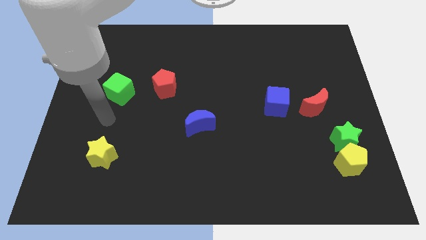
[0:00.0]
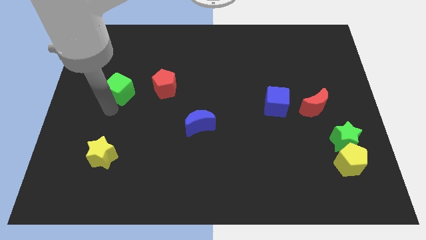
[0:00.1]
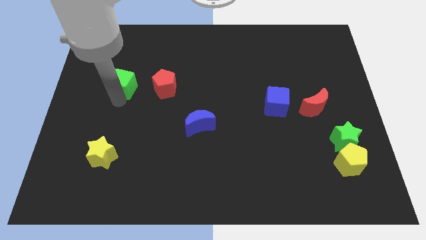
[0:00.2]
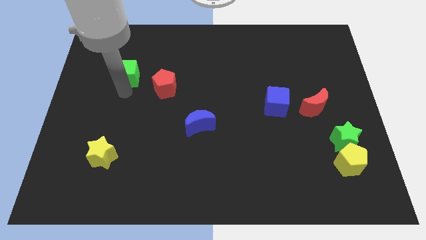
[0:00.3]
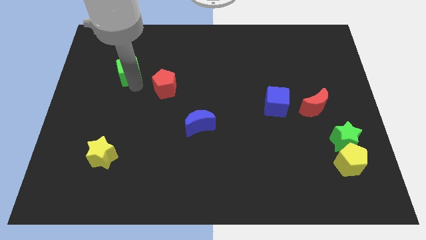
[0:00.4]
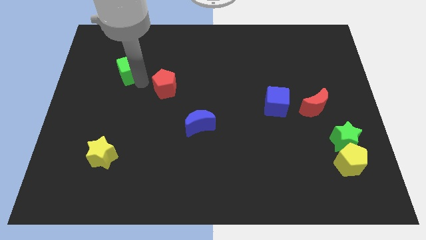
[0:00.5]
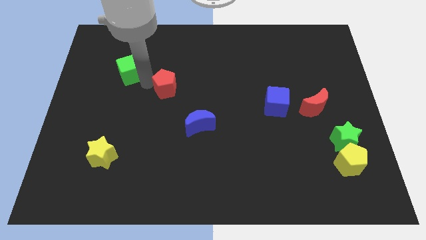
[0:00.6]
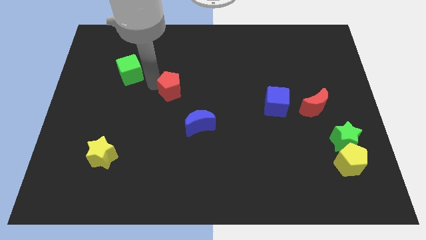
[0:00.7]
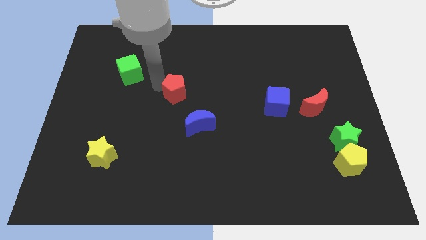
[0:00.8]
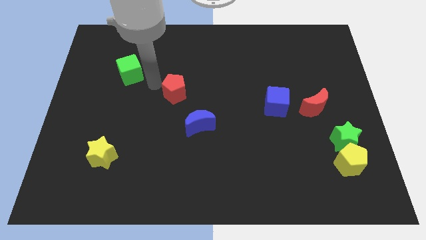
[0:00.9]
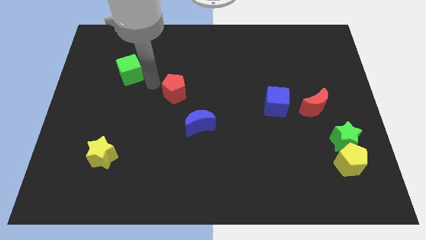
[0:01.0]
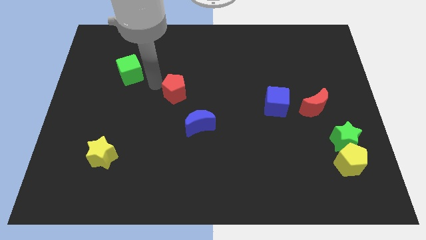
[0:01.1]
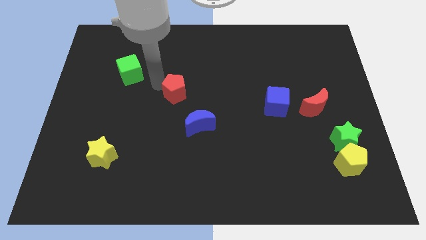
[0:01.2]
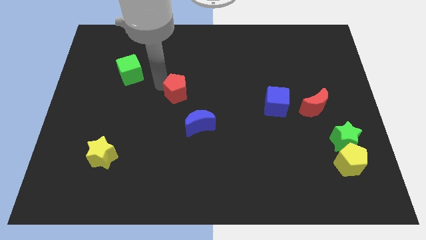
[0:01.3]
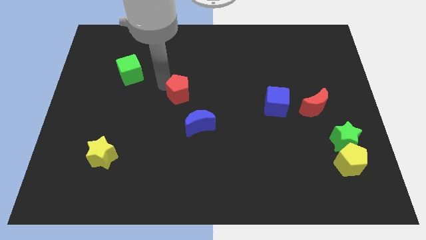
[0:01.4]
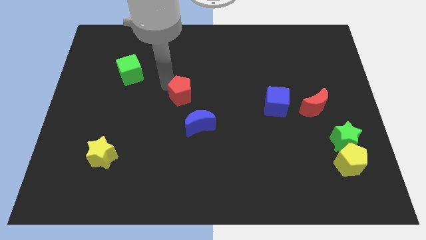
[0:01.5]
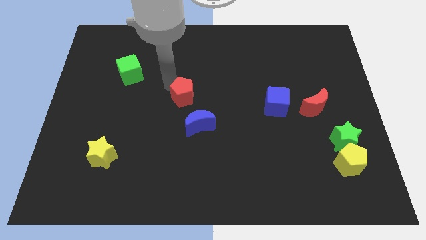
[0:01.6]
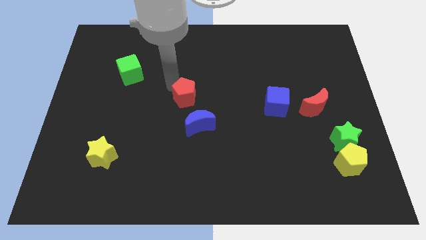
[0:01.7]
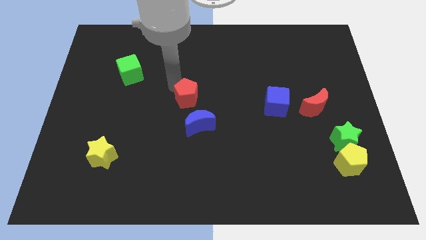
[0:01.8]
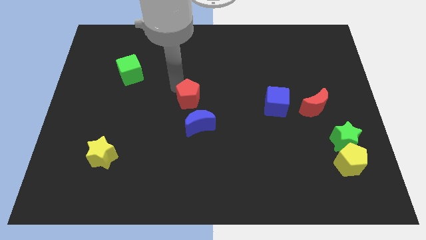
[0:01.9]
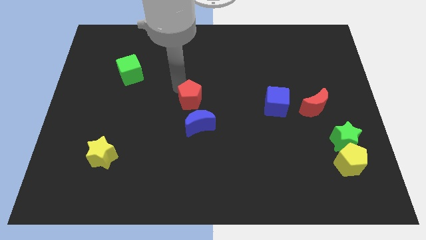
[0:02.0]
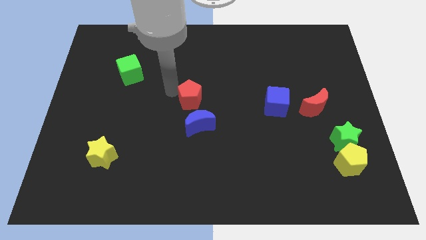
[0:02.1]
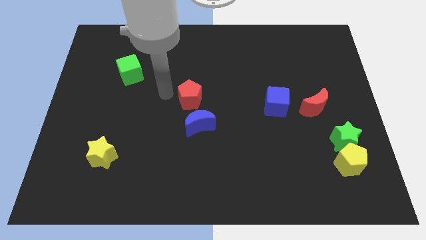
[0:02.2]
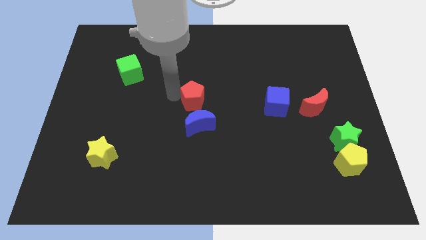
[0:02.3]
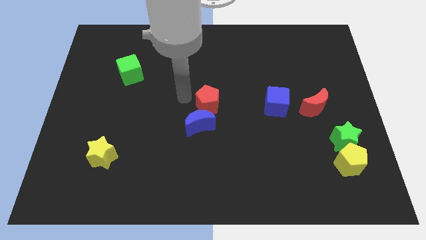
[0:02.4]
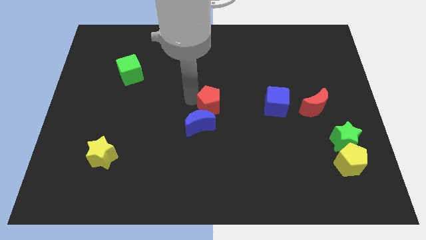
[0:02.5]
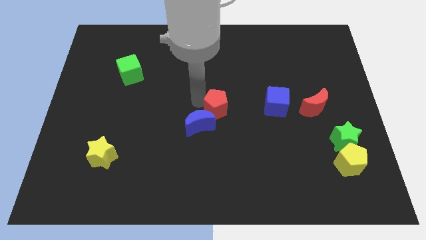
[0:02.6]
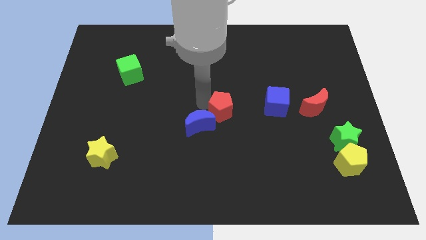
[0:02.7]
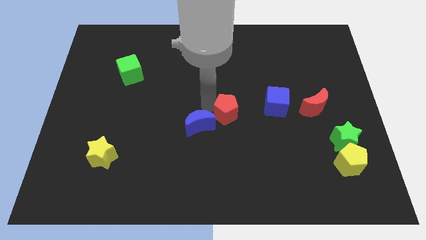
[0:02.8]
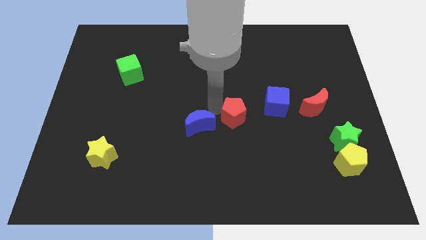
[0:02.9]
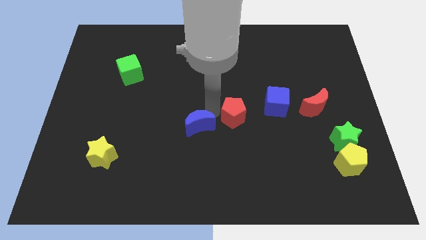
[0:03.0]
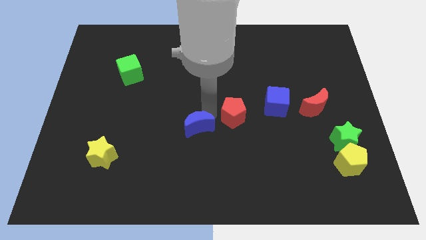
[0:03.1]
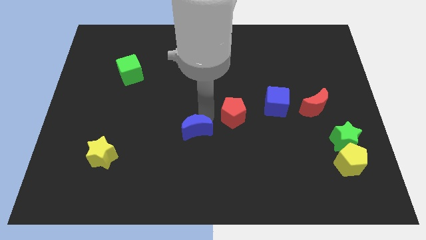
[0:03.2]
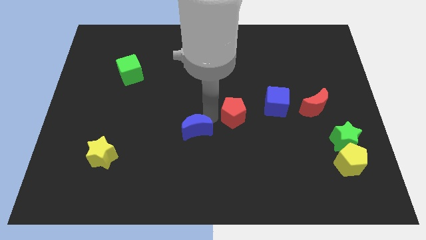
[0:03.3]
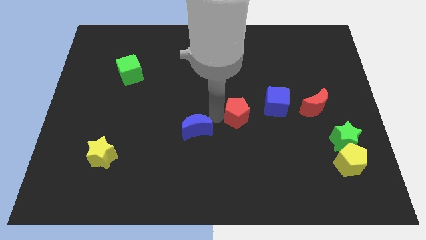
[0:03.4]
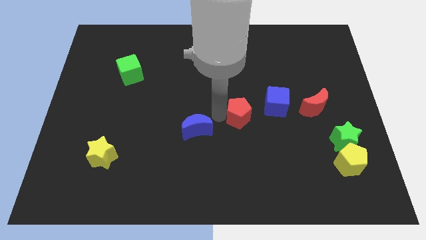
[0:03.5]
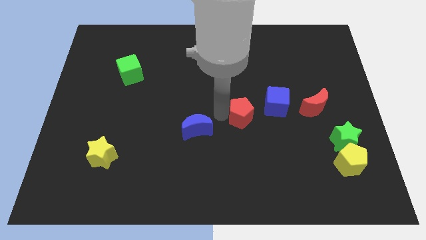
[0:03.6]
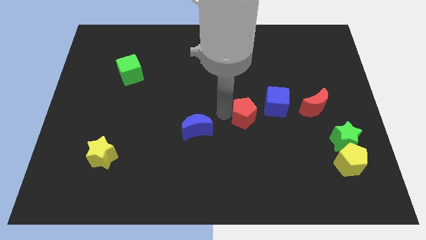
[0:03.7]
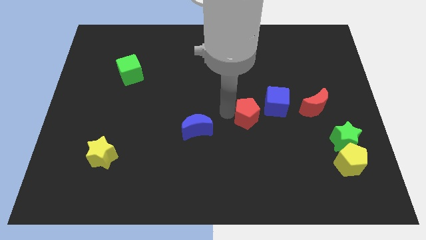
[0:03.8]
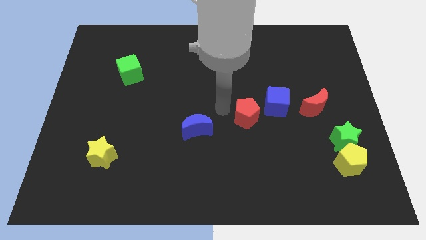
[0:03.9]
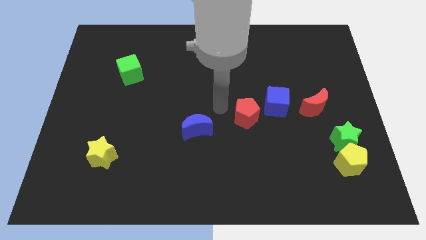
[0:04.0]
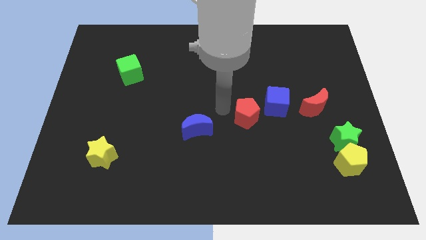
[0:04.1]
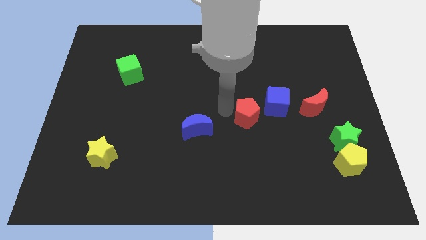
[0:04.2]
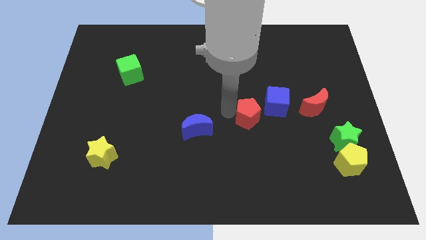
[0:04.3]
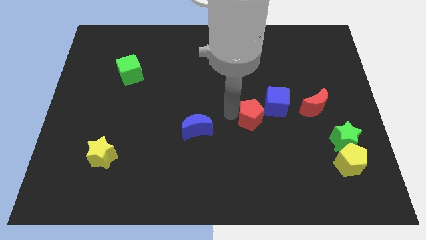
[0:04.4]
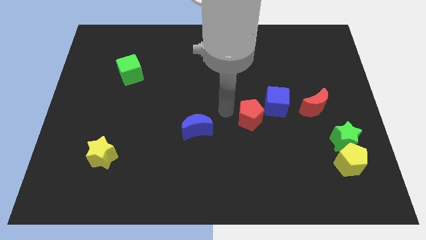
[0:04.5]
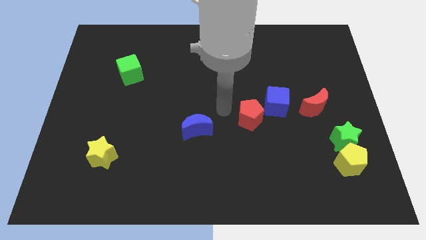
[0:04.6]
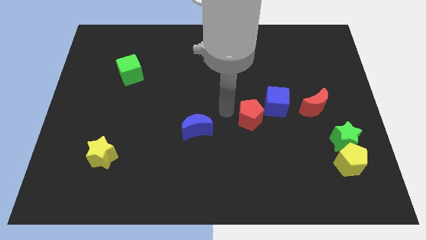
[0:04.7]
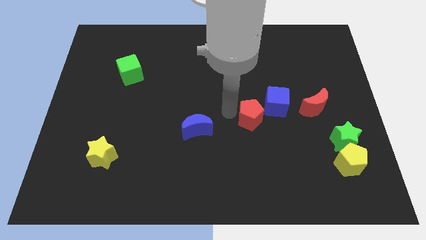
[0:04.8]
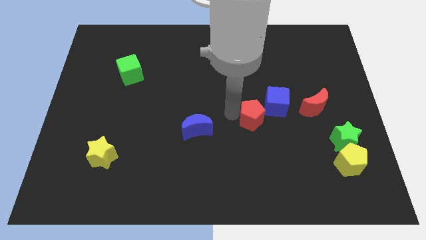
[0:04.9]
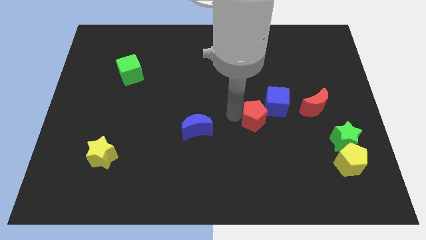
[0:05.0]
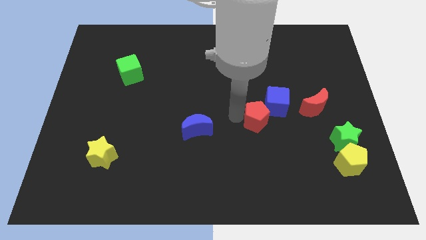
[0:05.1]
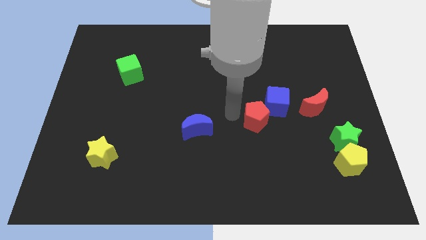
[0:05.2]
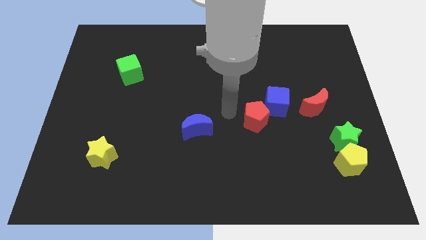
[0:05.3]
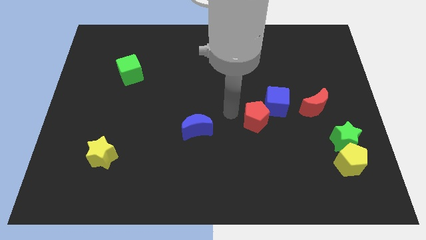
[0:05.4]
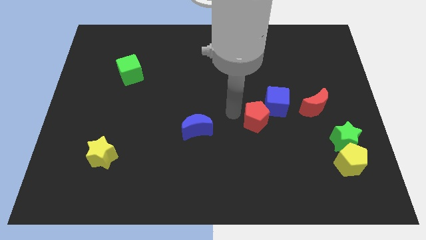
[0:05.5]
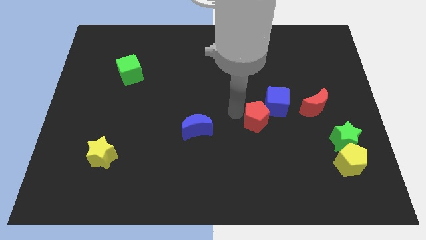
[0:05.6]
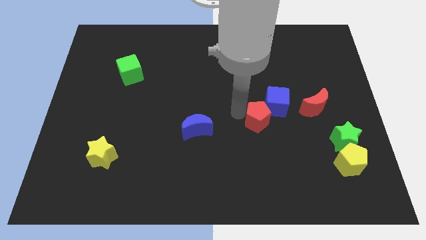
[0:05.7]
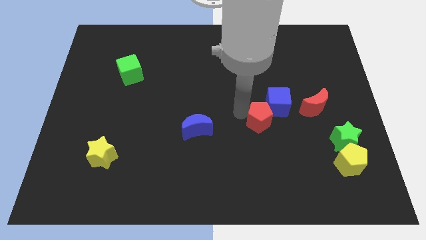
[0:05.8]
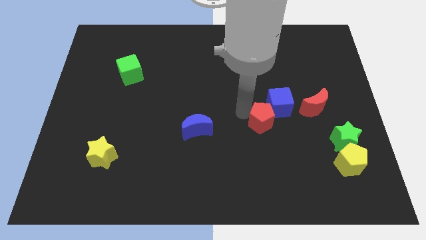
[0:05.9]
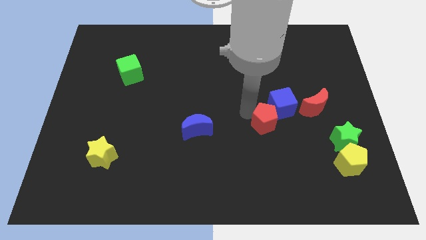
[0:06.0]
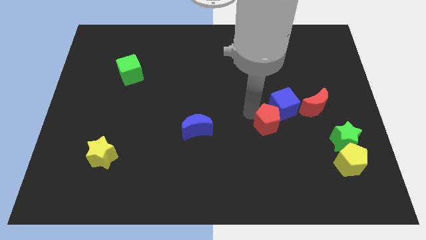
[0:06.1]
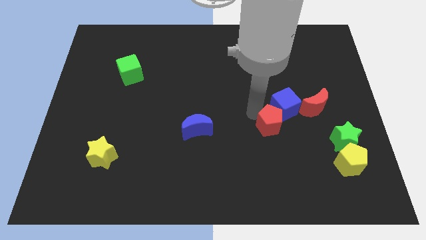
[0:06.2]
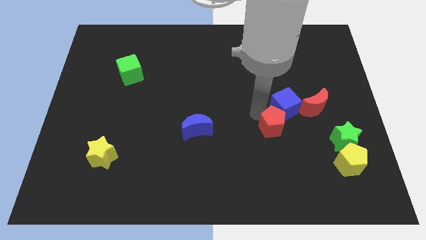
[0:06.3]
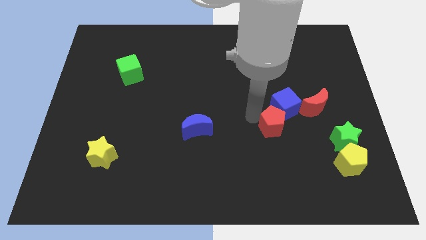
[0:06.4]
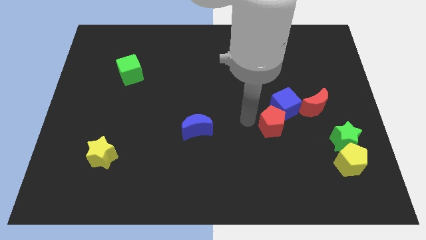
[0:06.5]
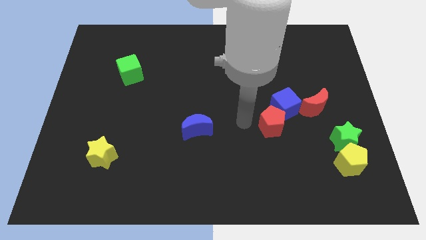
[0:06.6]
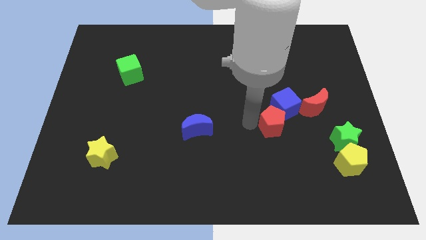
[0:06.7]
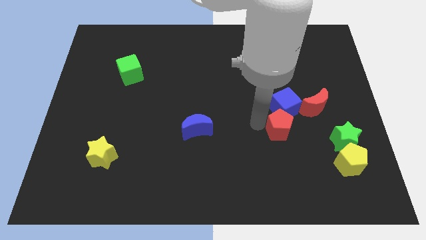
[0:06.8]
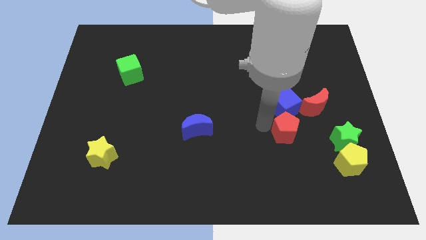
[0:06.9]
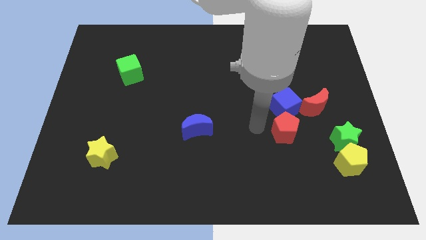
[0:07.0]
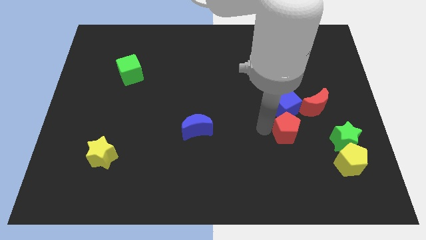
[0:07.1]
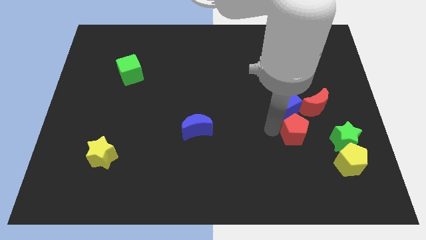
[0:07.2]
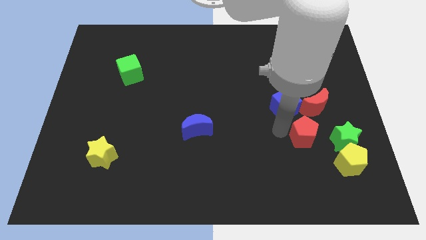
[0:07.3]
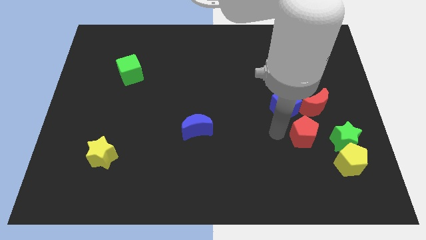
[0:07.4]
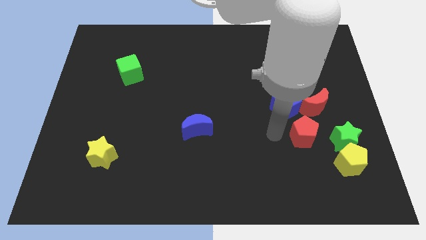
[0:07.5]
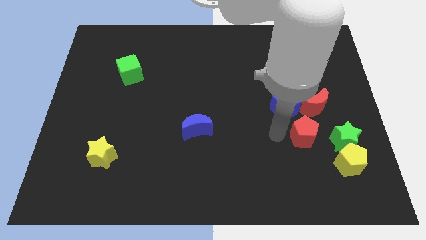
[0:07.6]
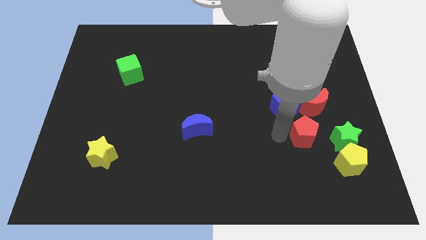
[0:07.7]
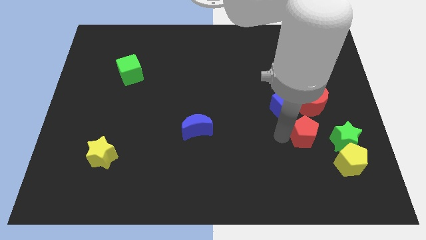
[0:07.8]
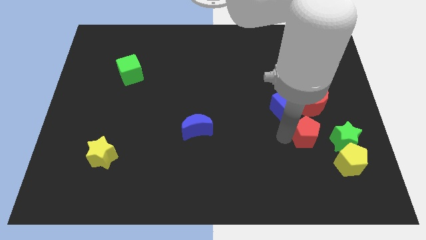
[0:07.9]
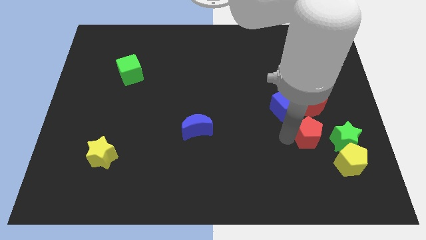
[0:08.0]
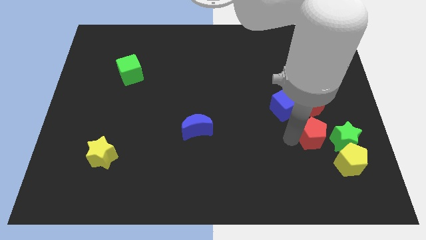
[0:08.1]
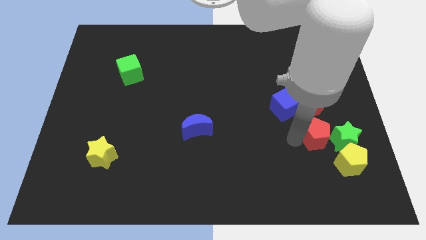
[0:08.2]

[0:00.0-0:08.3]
push the red pentagon to the green star
